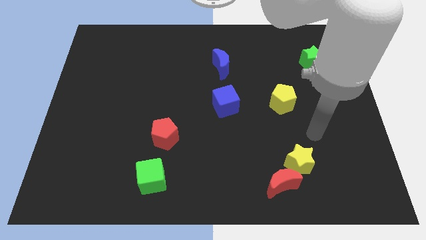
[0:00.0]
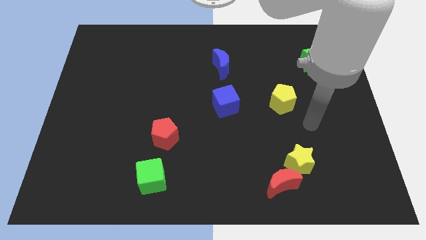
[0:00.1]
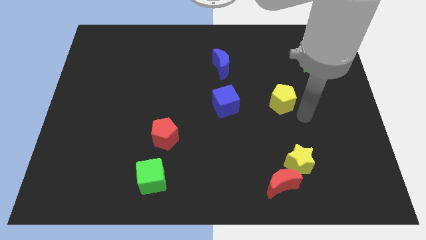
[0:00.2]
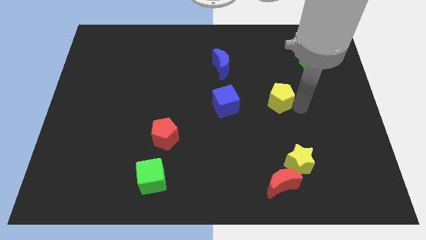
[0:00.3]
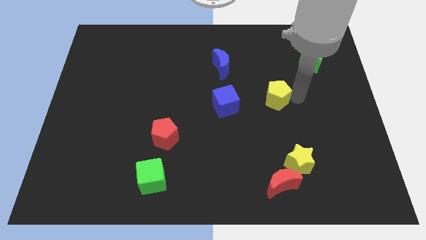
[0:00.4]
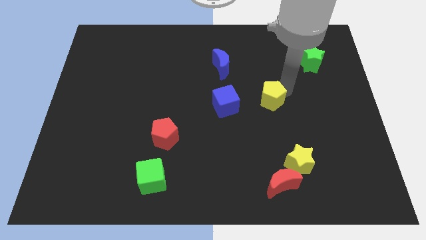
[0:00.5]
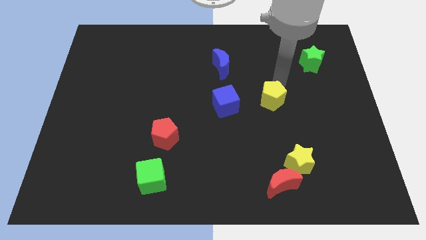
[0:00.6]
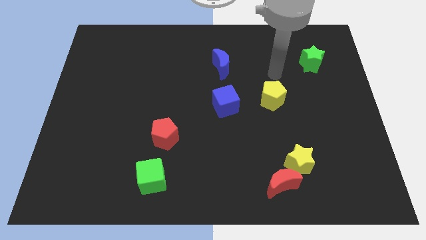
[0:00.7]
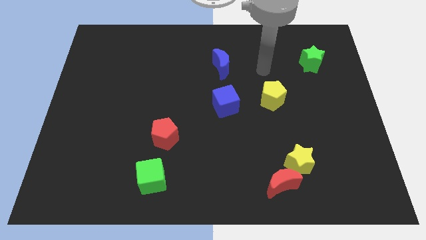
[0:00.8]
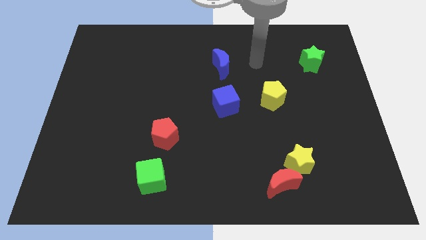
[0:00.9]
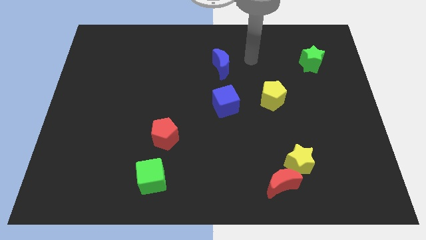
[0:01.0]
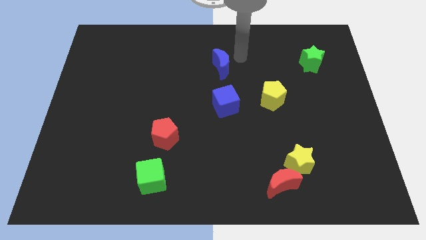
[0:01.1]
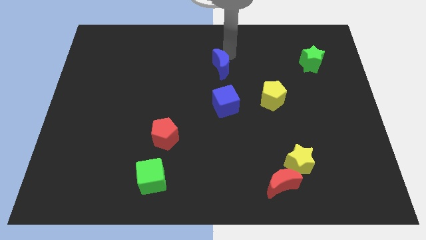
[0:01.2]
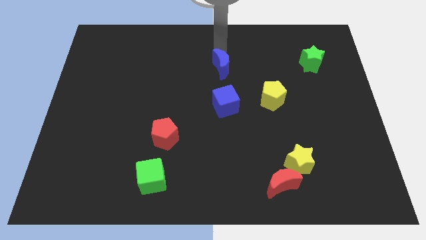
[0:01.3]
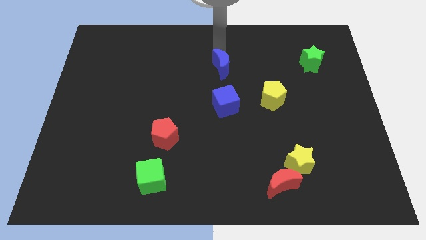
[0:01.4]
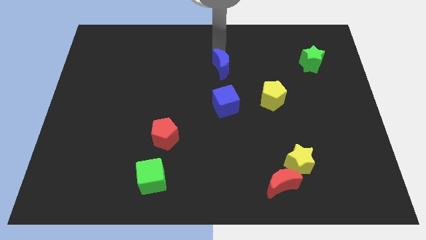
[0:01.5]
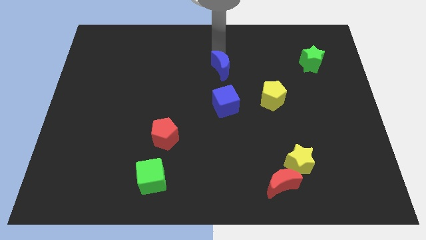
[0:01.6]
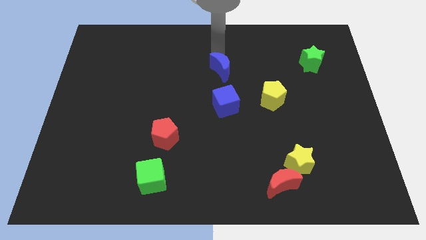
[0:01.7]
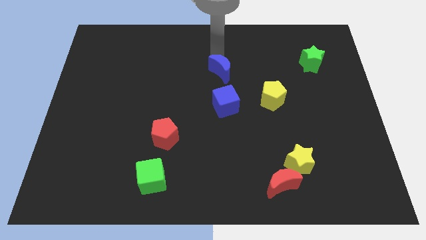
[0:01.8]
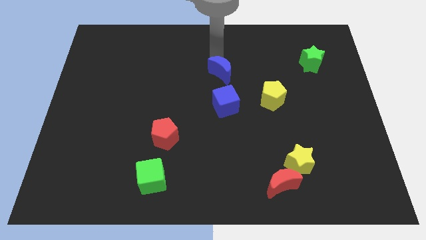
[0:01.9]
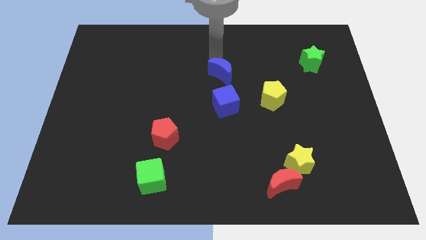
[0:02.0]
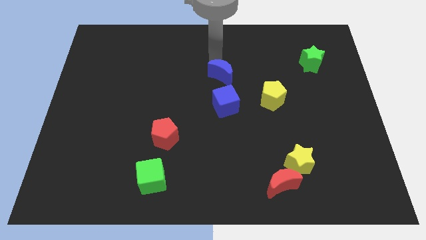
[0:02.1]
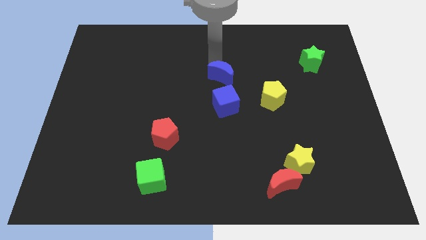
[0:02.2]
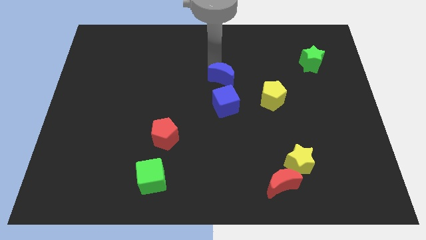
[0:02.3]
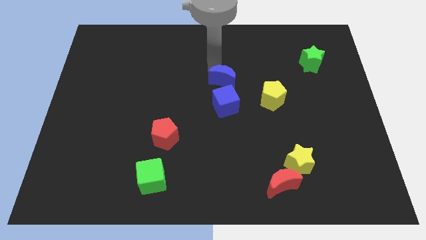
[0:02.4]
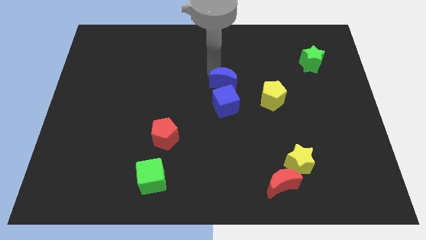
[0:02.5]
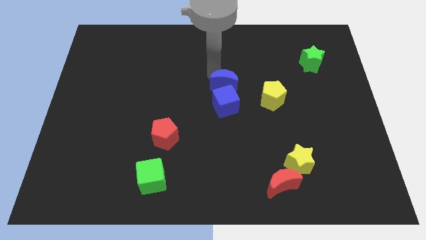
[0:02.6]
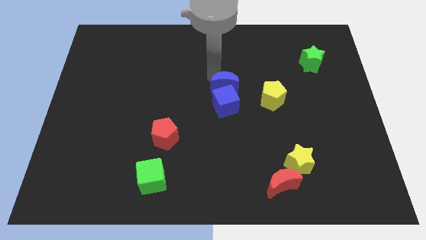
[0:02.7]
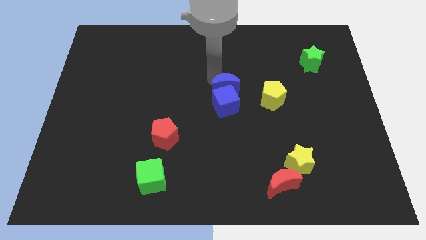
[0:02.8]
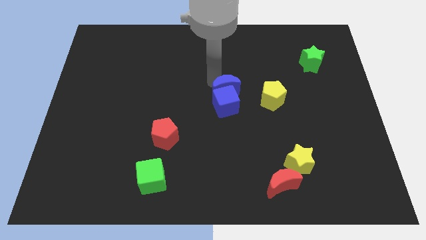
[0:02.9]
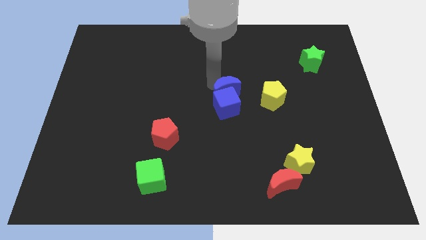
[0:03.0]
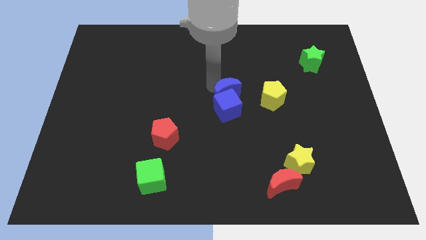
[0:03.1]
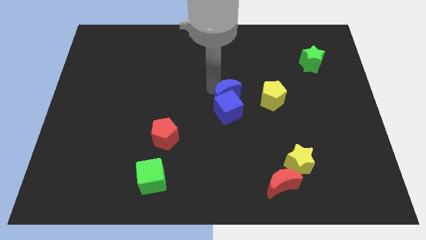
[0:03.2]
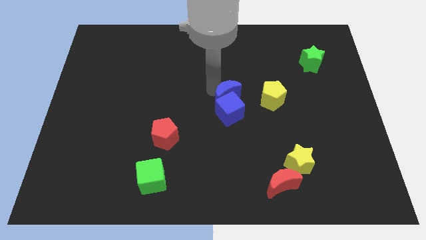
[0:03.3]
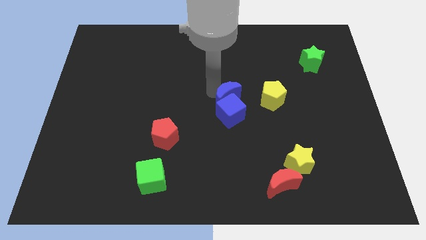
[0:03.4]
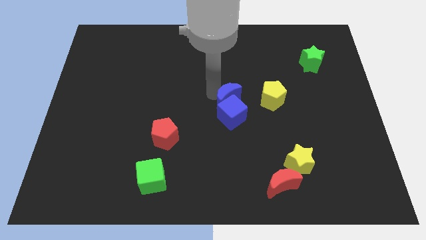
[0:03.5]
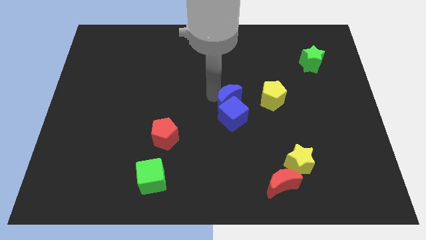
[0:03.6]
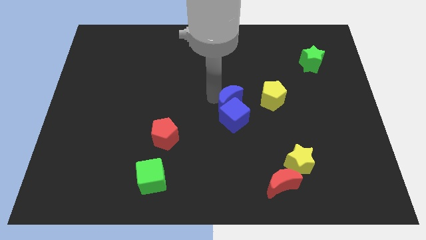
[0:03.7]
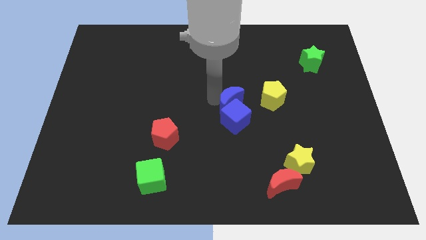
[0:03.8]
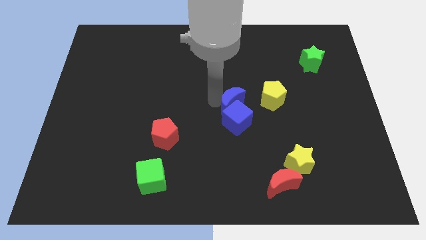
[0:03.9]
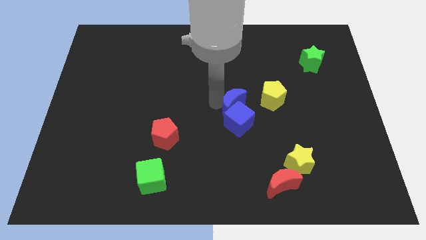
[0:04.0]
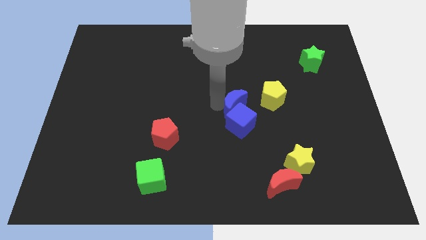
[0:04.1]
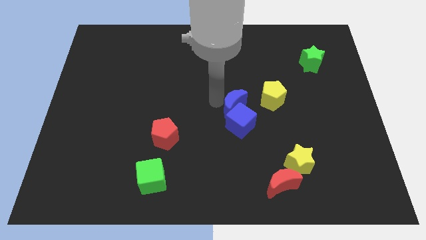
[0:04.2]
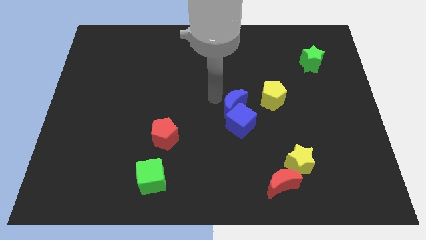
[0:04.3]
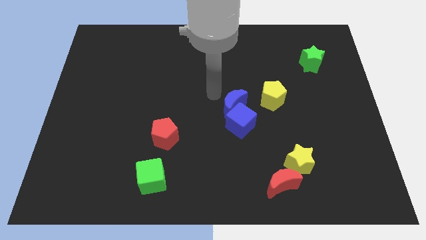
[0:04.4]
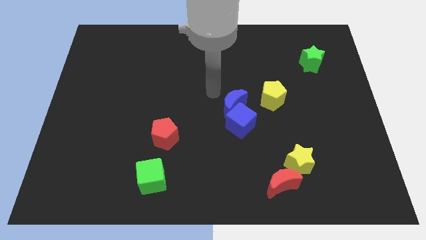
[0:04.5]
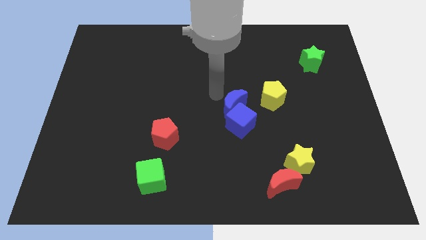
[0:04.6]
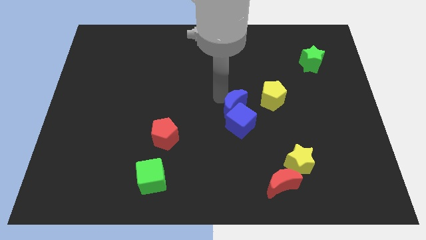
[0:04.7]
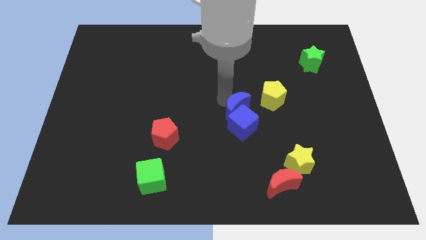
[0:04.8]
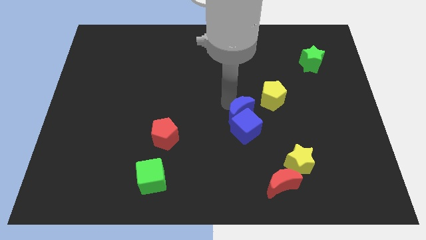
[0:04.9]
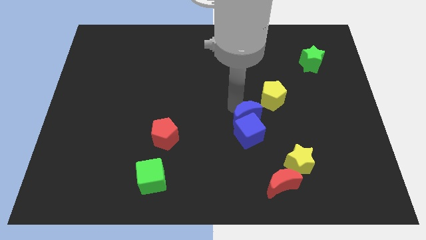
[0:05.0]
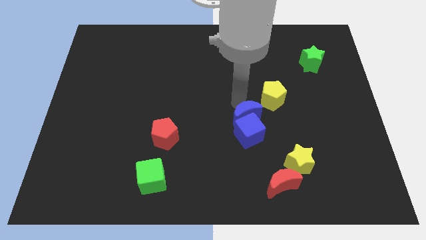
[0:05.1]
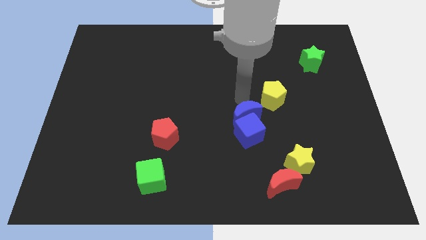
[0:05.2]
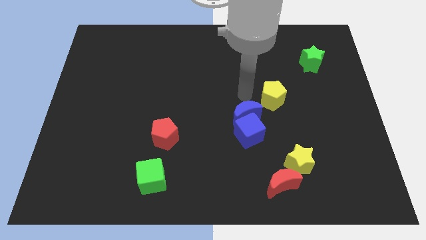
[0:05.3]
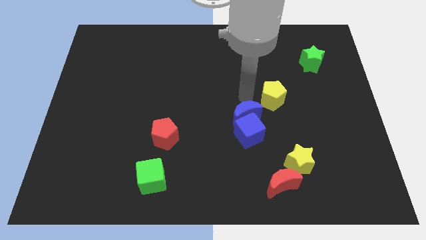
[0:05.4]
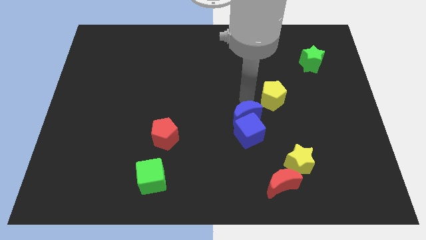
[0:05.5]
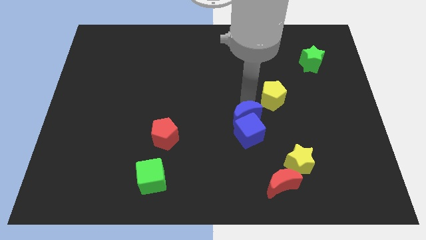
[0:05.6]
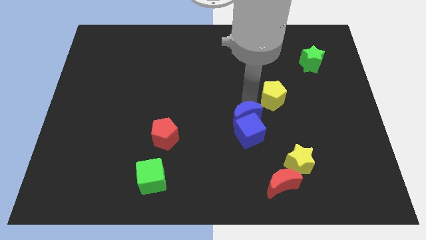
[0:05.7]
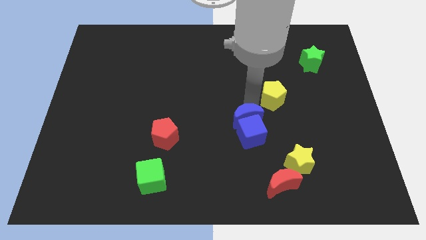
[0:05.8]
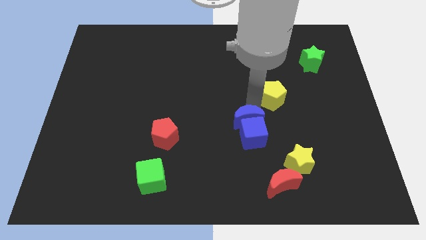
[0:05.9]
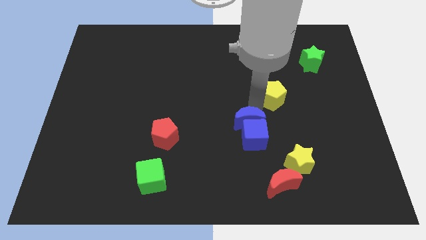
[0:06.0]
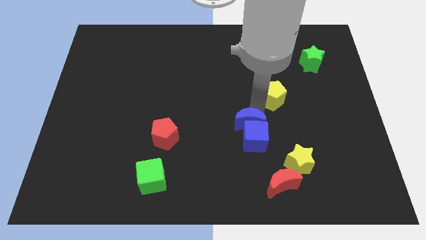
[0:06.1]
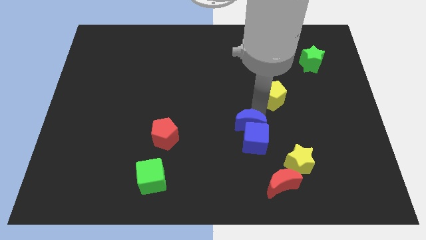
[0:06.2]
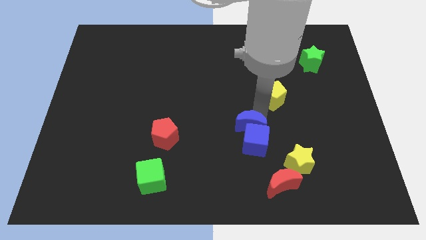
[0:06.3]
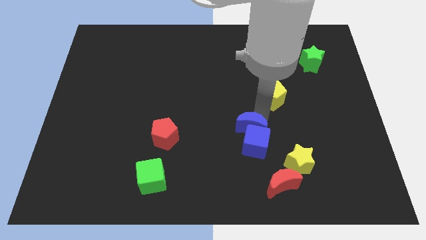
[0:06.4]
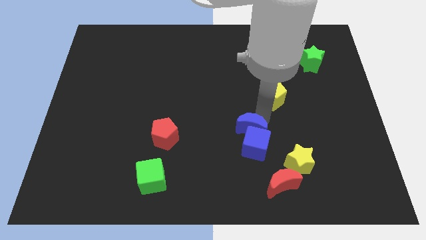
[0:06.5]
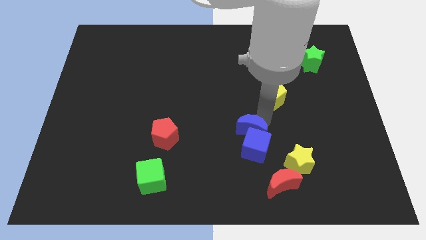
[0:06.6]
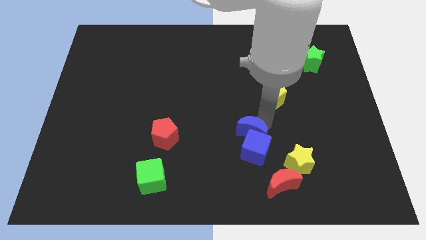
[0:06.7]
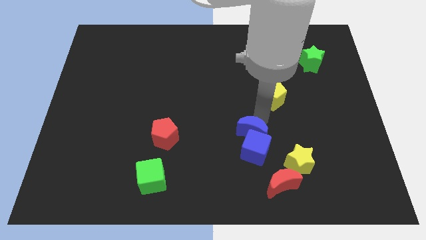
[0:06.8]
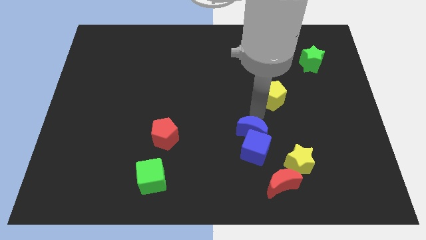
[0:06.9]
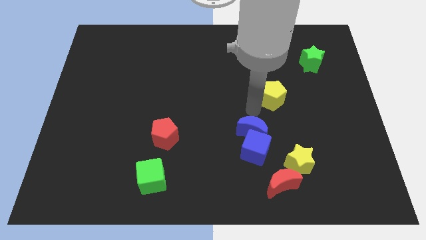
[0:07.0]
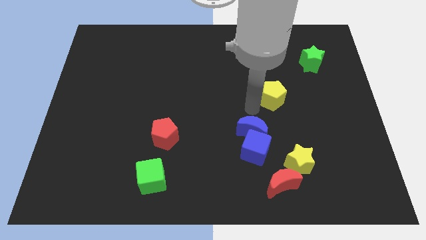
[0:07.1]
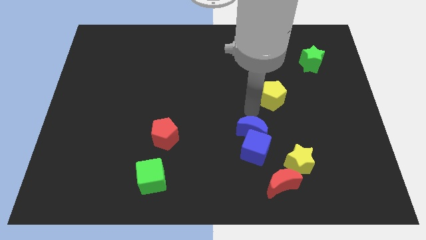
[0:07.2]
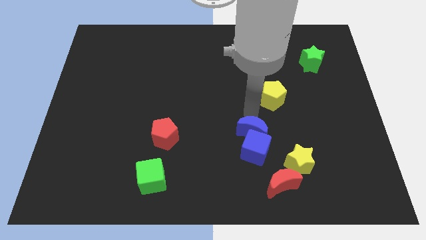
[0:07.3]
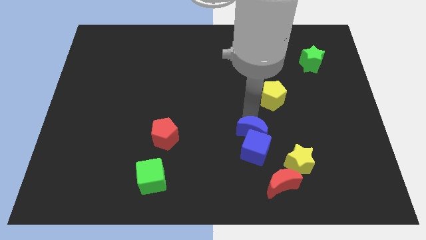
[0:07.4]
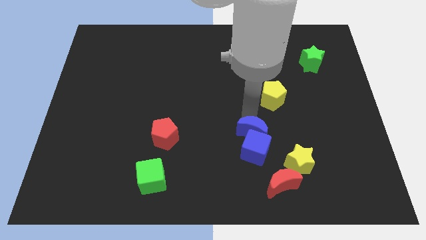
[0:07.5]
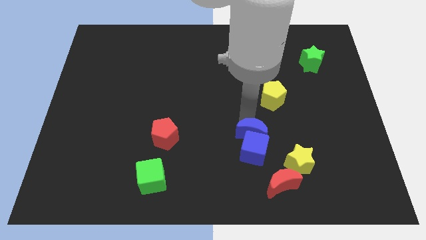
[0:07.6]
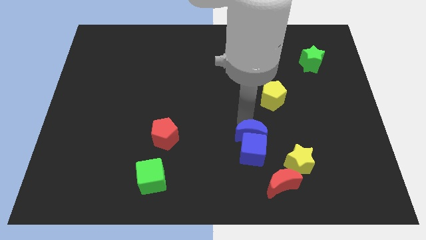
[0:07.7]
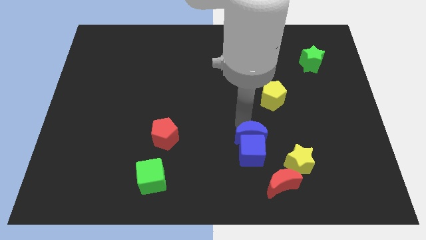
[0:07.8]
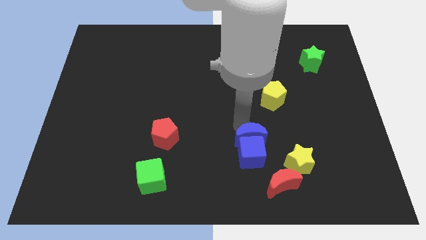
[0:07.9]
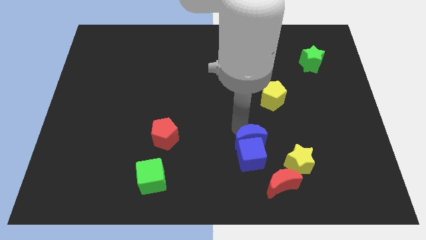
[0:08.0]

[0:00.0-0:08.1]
move the blue moon to the top left of the red moon
